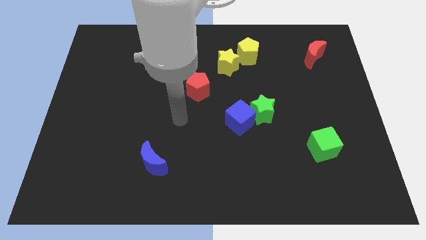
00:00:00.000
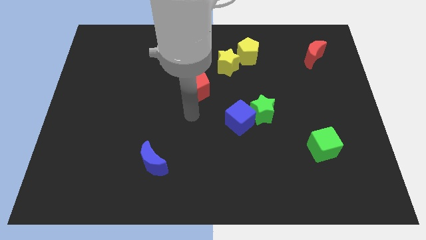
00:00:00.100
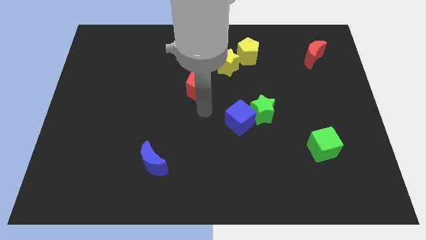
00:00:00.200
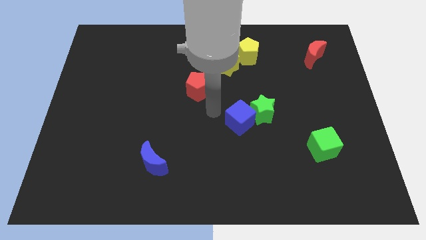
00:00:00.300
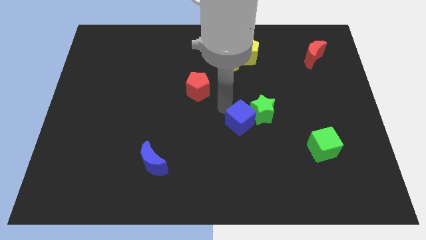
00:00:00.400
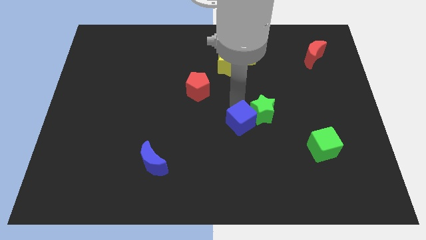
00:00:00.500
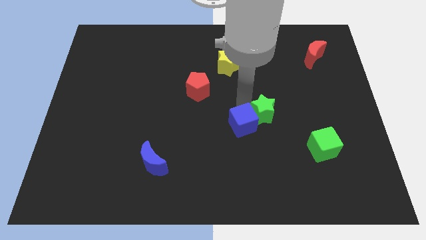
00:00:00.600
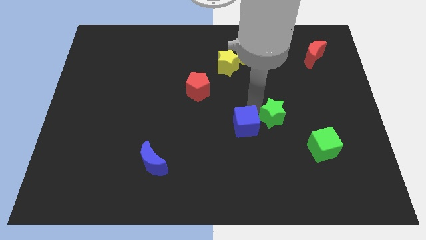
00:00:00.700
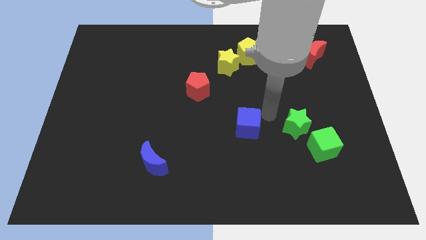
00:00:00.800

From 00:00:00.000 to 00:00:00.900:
pull the blue cube apart from the green star

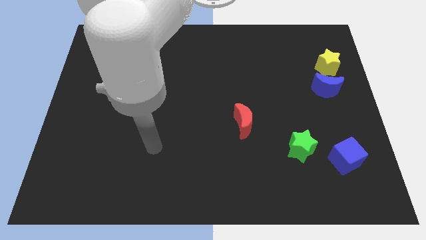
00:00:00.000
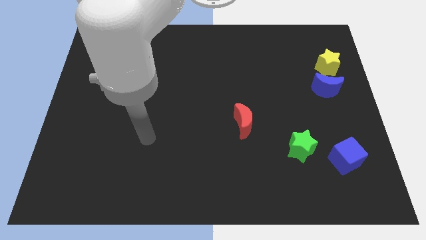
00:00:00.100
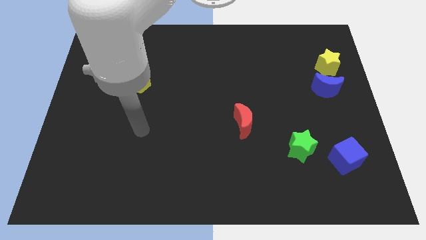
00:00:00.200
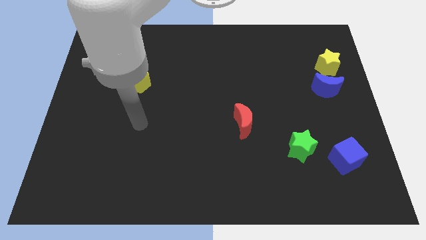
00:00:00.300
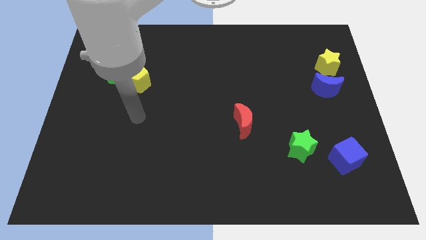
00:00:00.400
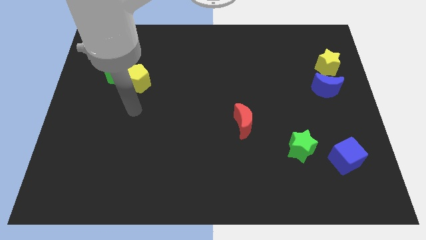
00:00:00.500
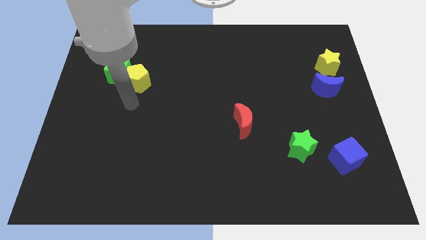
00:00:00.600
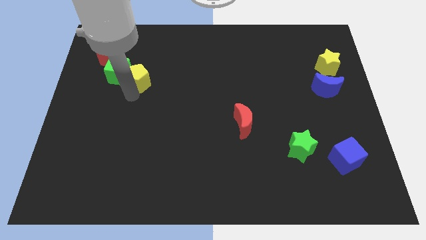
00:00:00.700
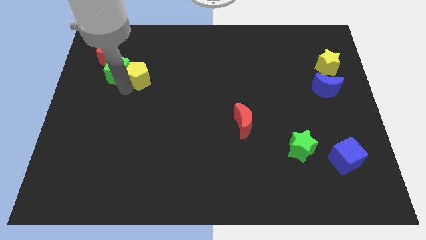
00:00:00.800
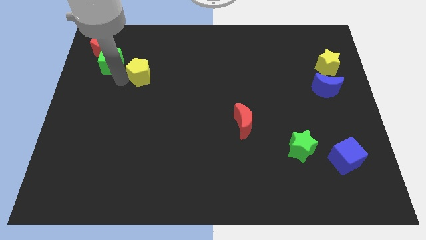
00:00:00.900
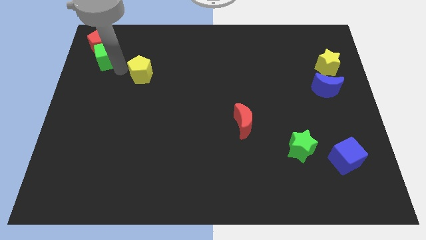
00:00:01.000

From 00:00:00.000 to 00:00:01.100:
pull the yellow pentagon apart from the green cube

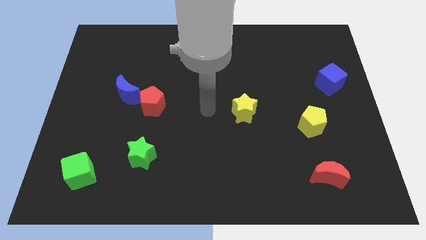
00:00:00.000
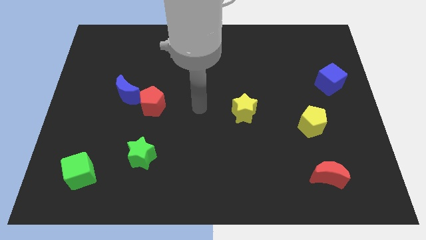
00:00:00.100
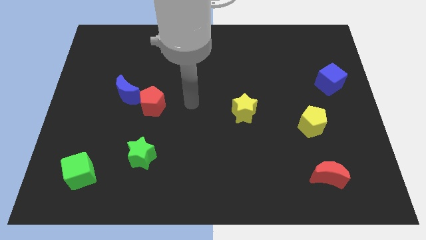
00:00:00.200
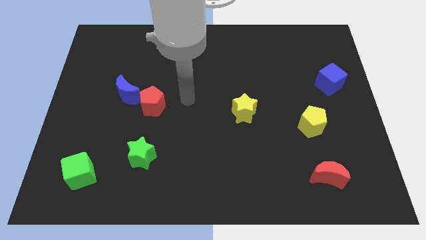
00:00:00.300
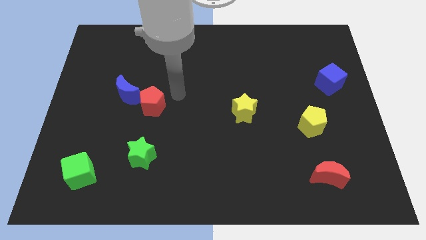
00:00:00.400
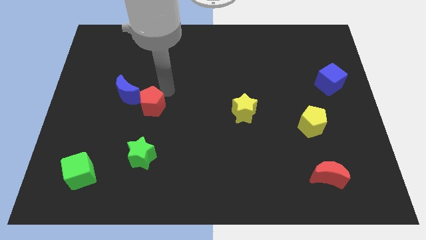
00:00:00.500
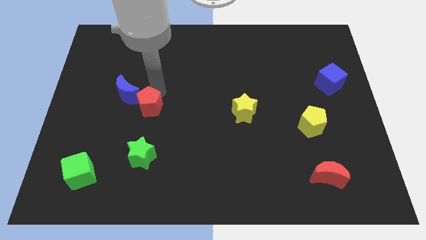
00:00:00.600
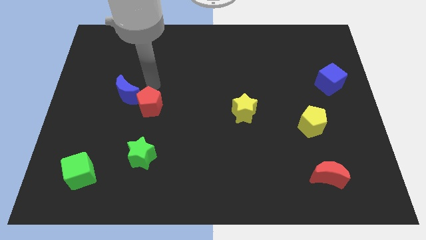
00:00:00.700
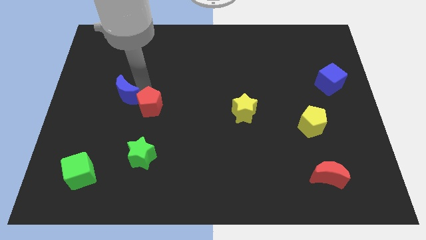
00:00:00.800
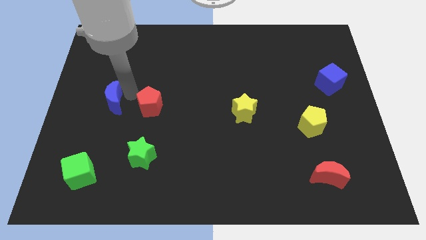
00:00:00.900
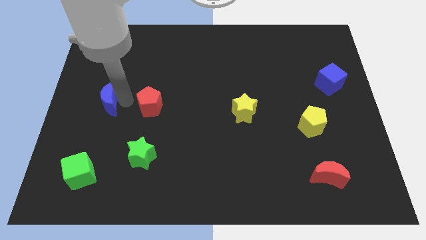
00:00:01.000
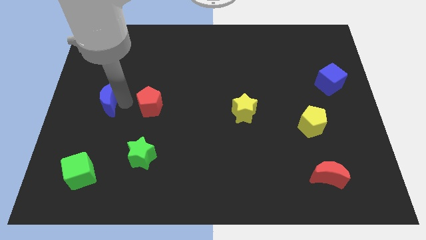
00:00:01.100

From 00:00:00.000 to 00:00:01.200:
separate the red pentagon from the blue moon

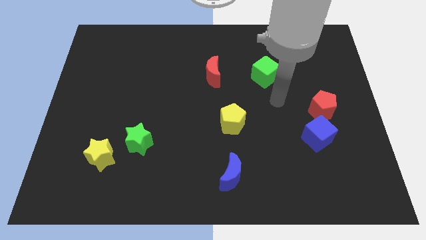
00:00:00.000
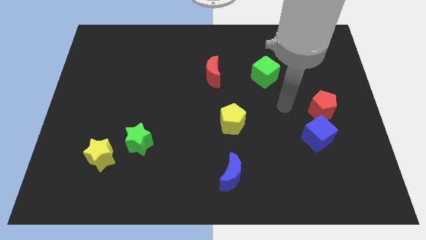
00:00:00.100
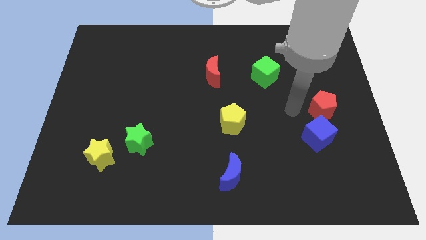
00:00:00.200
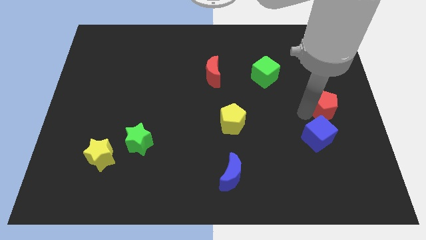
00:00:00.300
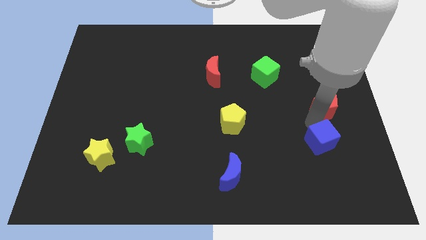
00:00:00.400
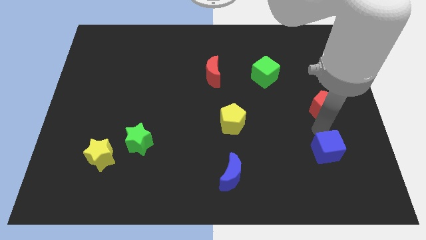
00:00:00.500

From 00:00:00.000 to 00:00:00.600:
move the red pentagon away from the blue cube

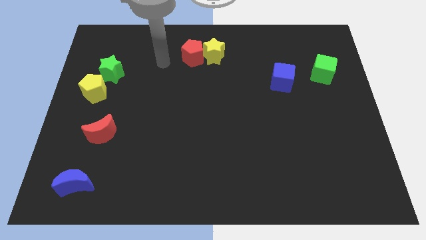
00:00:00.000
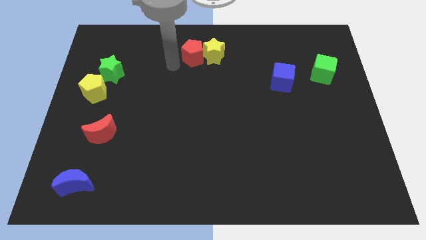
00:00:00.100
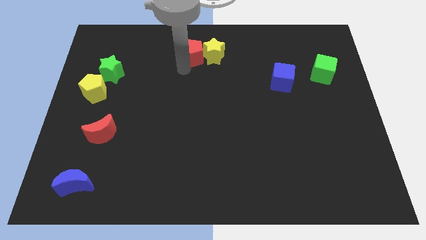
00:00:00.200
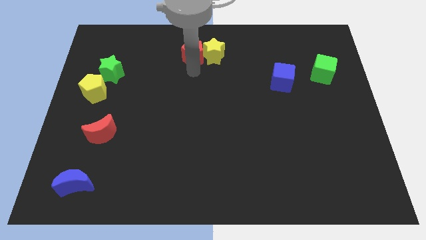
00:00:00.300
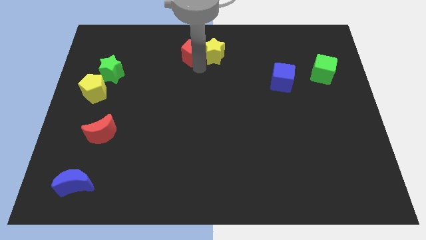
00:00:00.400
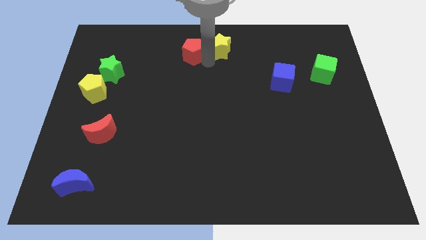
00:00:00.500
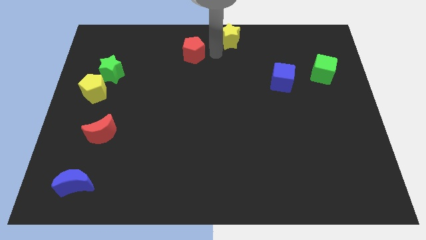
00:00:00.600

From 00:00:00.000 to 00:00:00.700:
pull the red pentagon apart from the yellow star

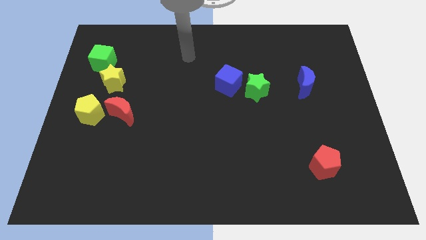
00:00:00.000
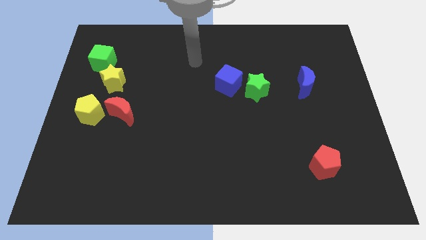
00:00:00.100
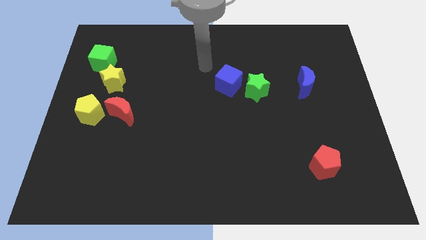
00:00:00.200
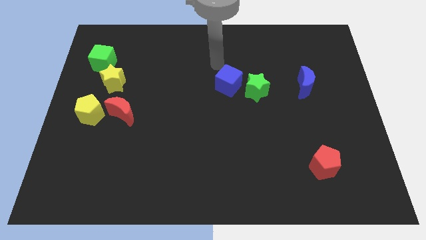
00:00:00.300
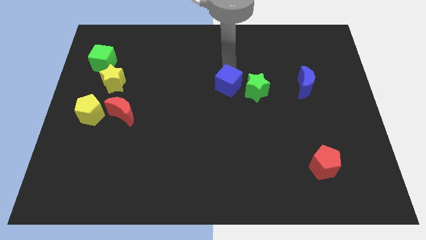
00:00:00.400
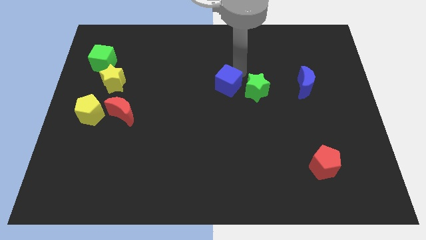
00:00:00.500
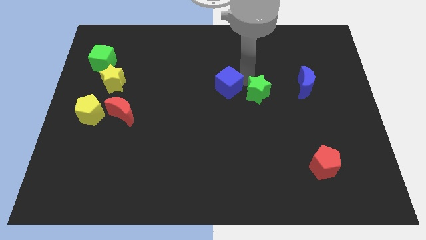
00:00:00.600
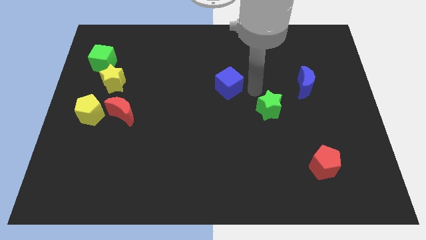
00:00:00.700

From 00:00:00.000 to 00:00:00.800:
move the blue cube away from the green star

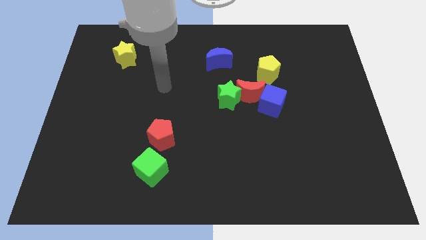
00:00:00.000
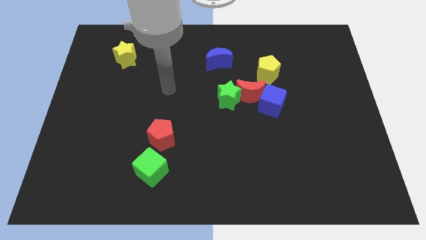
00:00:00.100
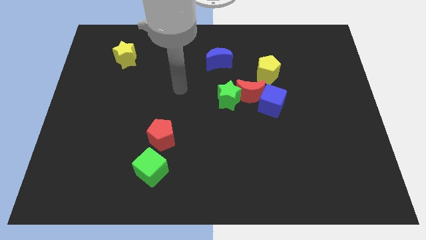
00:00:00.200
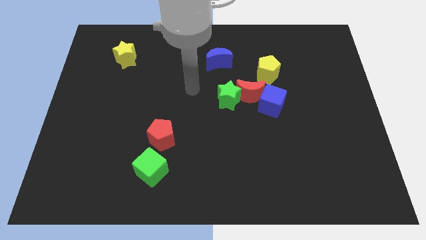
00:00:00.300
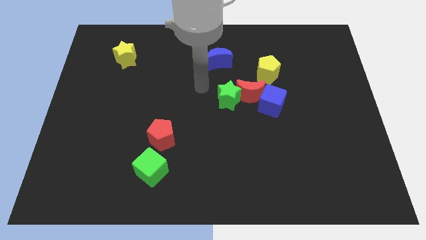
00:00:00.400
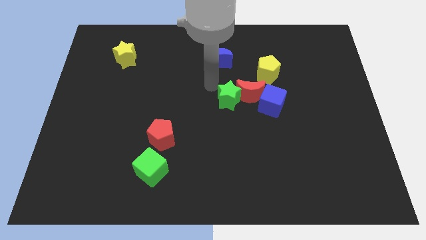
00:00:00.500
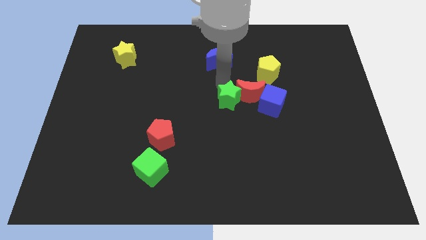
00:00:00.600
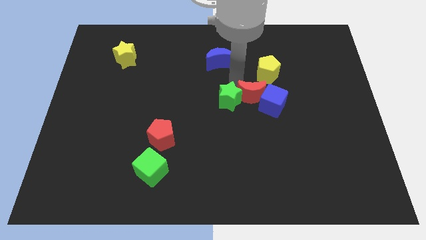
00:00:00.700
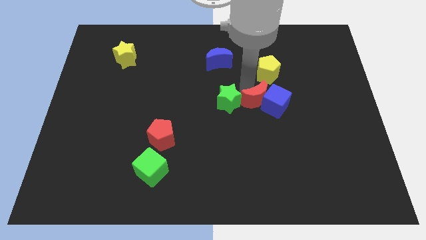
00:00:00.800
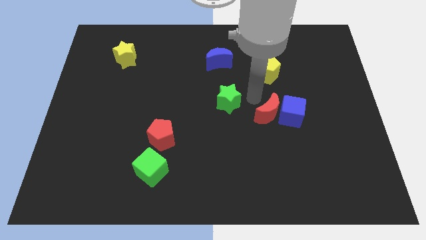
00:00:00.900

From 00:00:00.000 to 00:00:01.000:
separate the green star from the red moon

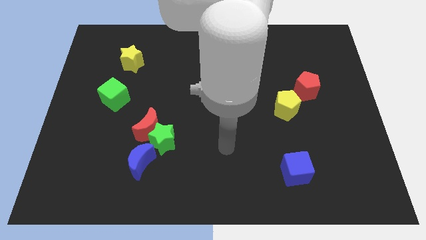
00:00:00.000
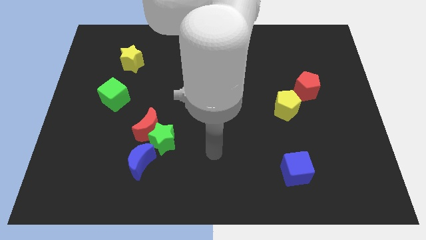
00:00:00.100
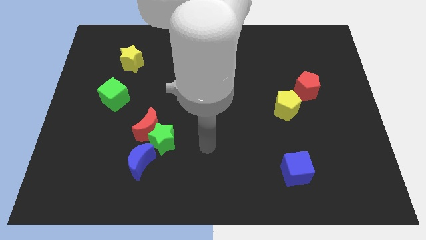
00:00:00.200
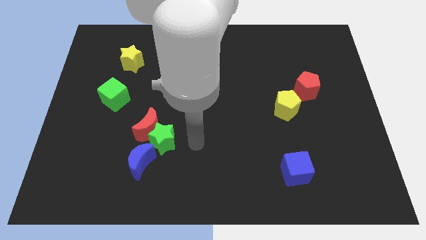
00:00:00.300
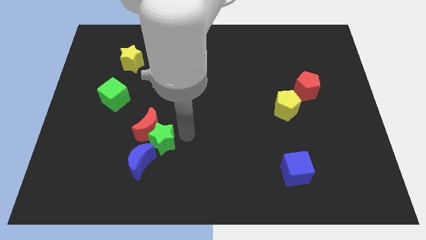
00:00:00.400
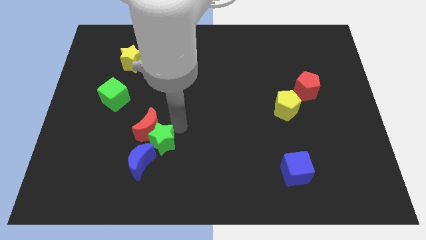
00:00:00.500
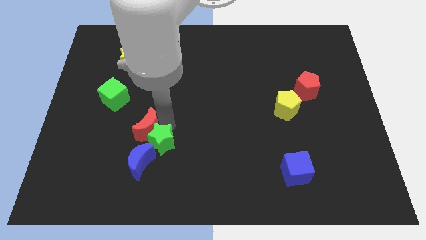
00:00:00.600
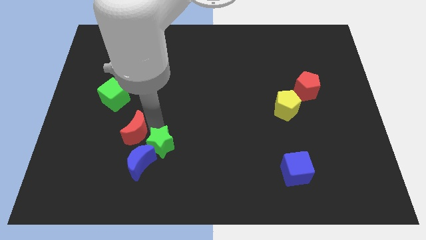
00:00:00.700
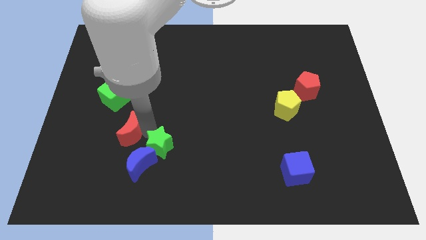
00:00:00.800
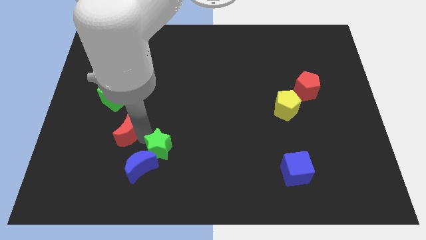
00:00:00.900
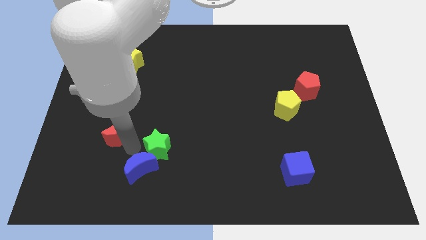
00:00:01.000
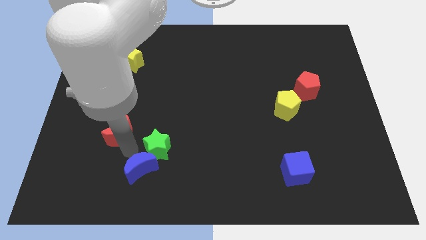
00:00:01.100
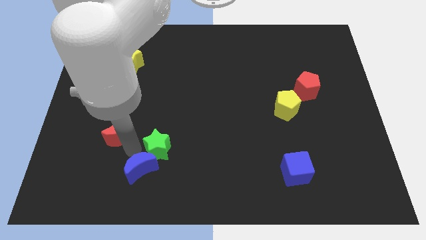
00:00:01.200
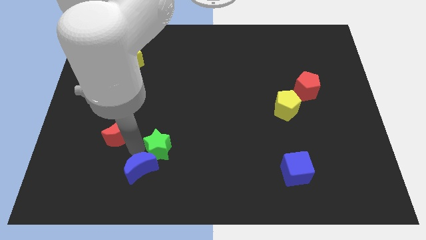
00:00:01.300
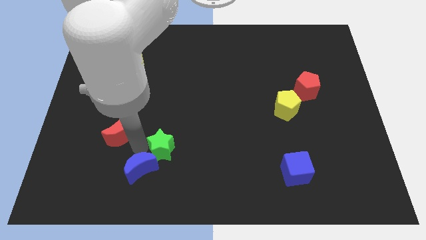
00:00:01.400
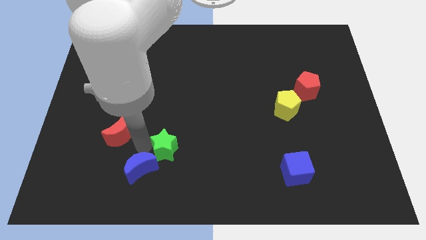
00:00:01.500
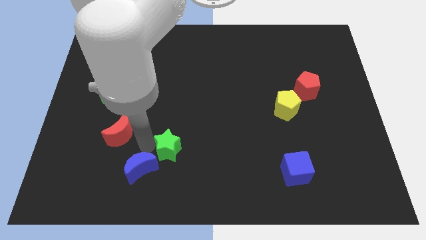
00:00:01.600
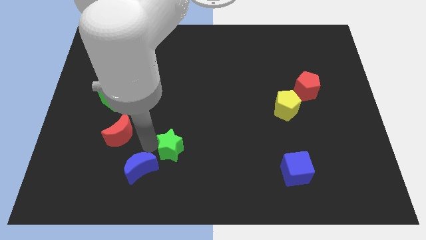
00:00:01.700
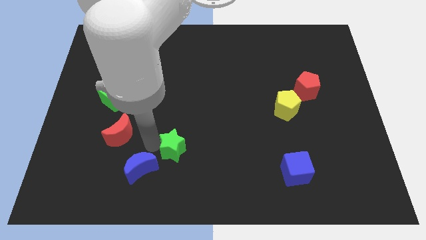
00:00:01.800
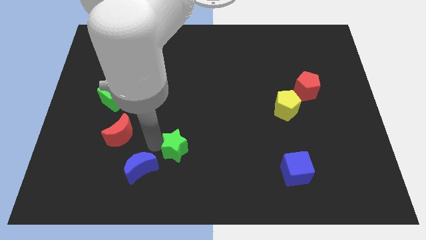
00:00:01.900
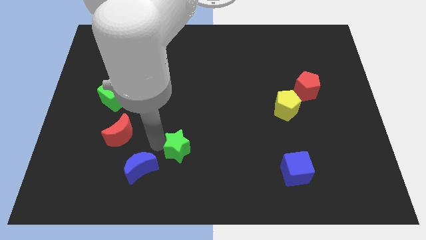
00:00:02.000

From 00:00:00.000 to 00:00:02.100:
pull the green star apart from the red moon and blue moon

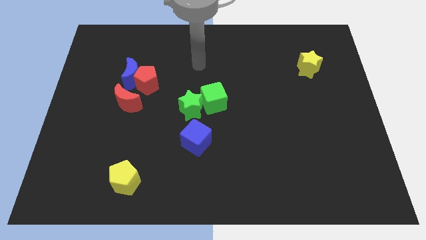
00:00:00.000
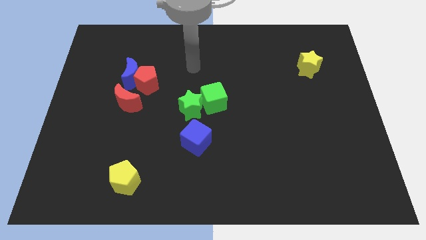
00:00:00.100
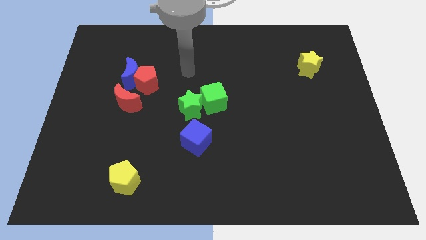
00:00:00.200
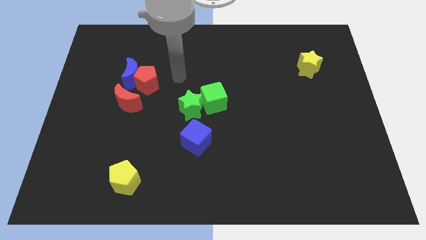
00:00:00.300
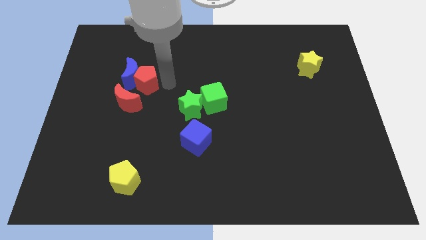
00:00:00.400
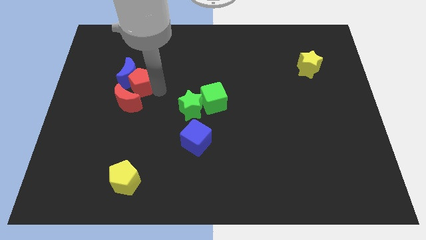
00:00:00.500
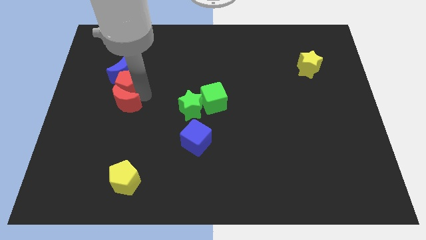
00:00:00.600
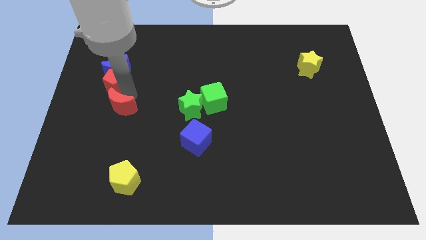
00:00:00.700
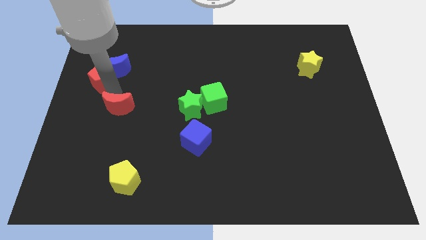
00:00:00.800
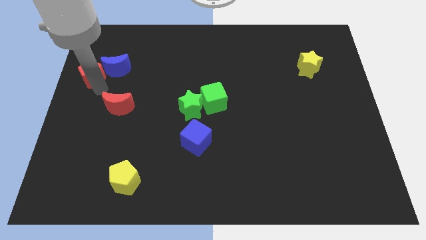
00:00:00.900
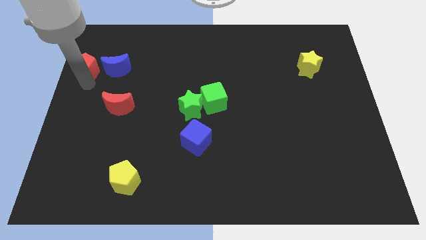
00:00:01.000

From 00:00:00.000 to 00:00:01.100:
pull the red pentagon apart from the blue moon and red moon
